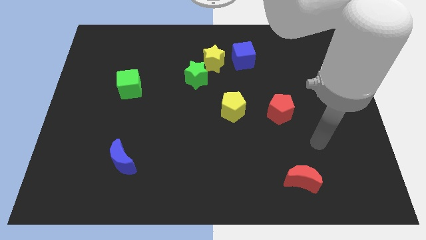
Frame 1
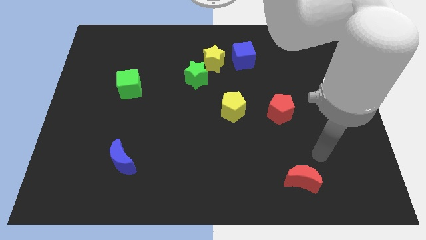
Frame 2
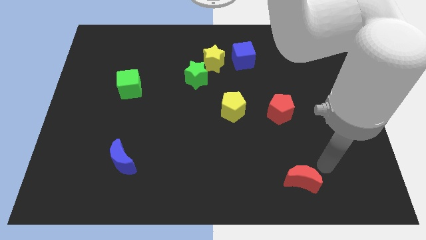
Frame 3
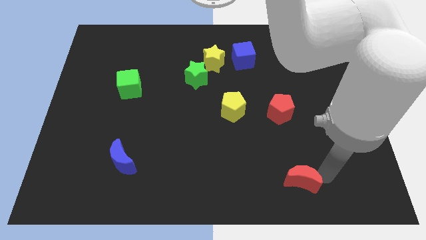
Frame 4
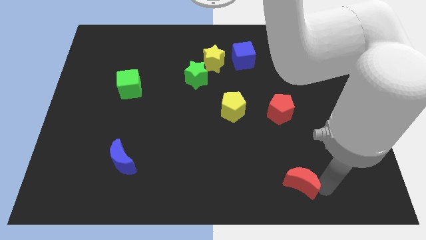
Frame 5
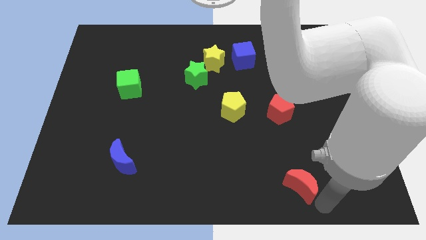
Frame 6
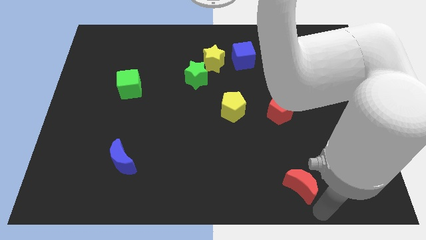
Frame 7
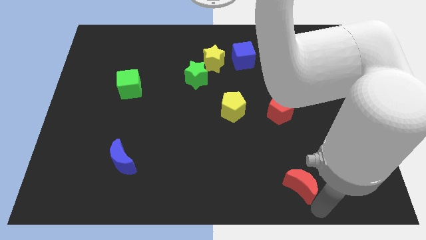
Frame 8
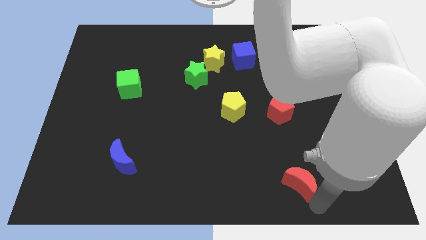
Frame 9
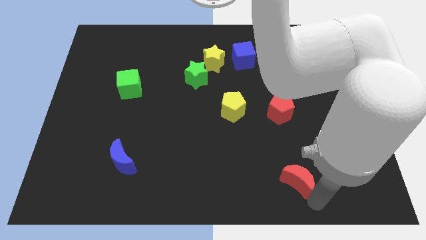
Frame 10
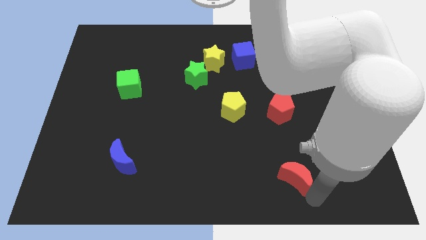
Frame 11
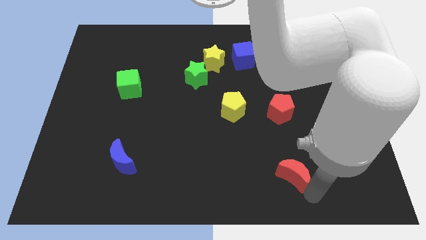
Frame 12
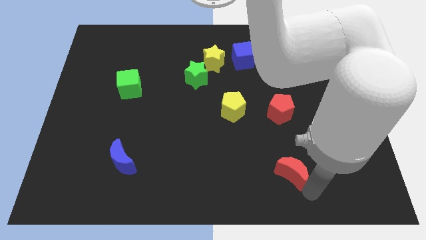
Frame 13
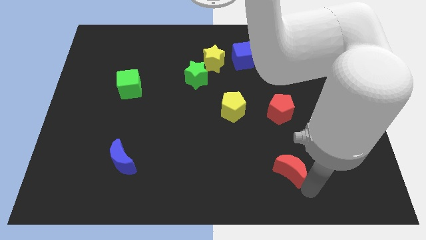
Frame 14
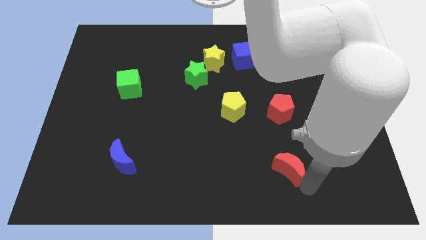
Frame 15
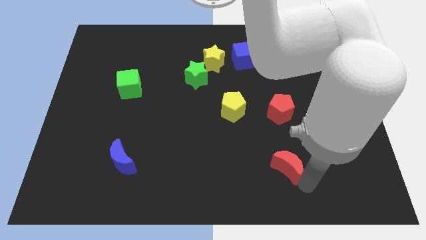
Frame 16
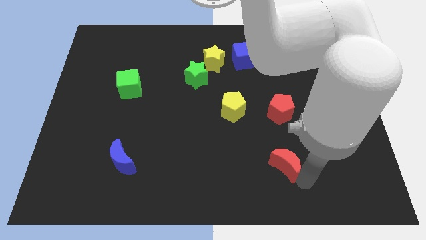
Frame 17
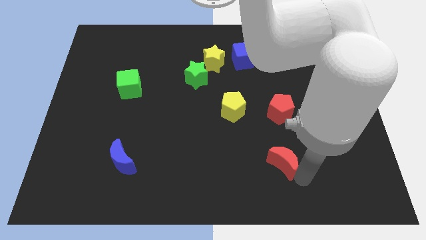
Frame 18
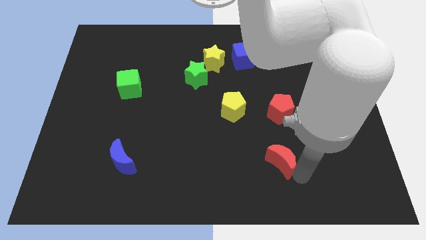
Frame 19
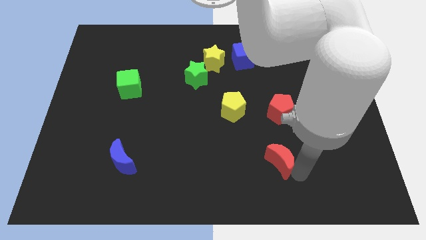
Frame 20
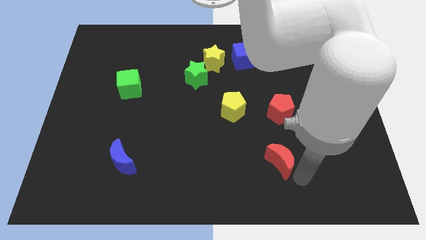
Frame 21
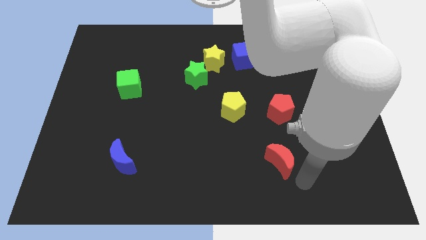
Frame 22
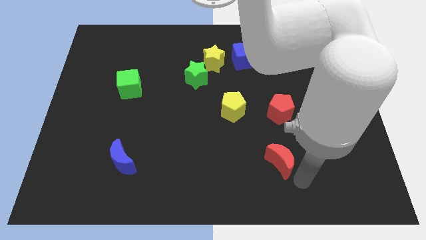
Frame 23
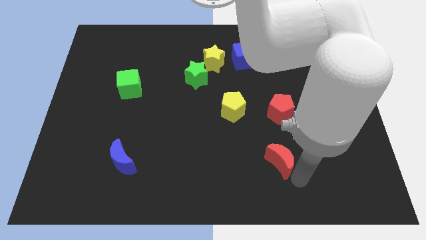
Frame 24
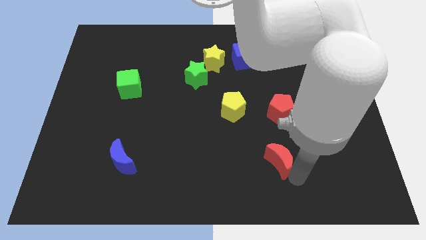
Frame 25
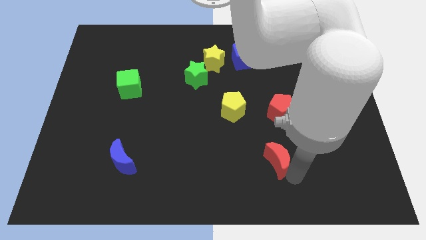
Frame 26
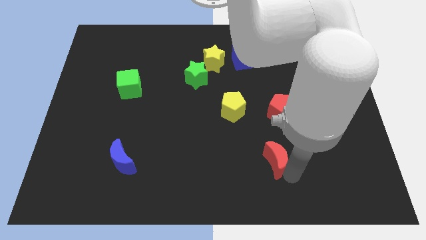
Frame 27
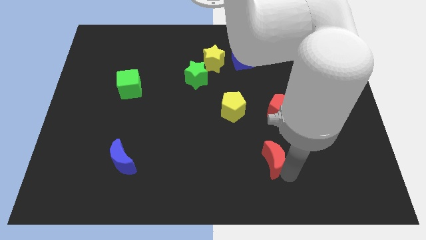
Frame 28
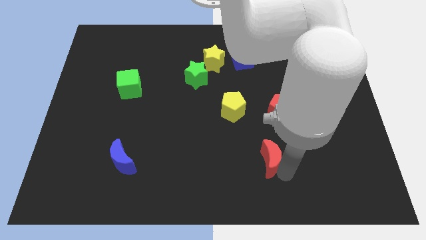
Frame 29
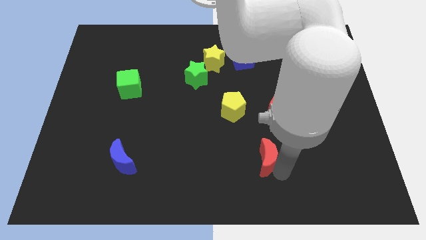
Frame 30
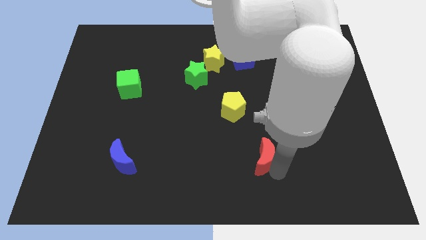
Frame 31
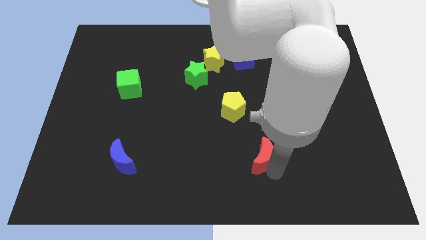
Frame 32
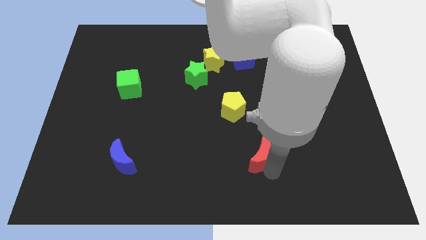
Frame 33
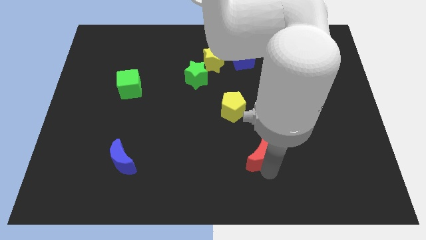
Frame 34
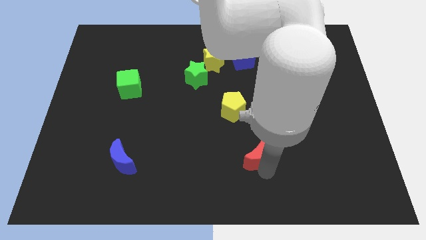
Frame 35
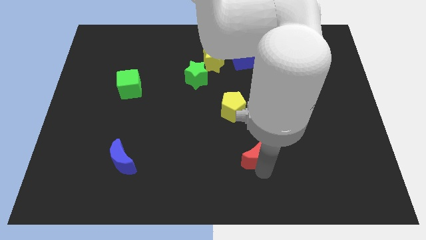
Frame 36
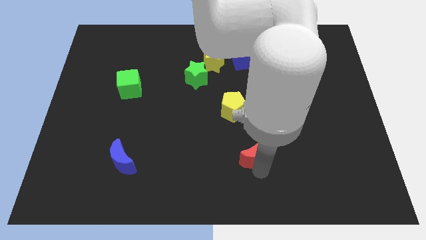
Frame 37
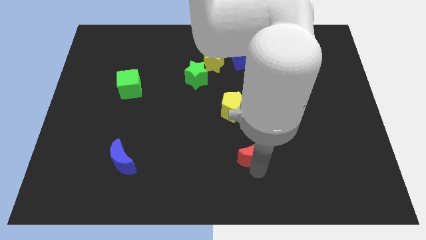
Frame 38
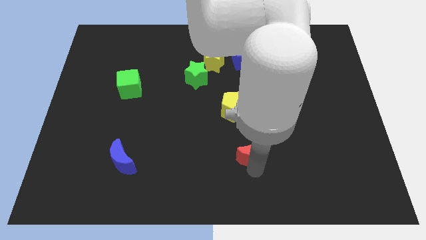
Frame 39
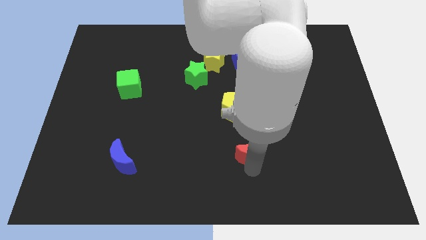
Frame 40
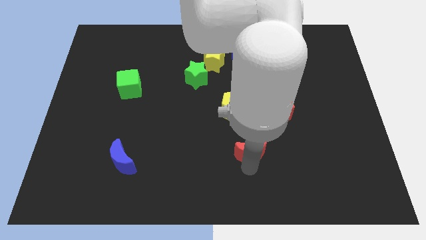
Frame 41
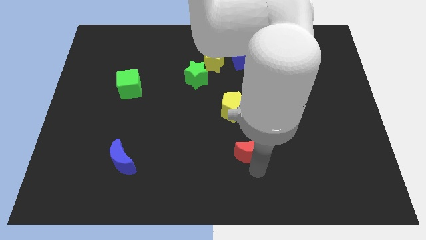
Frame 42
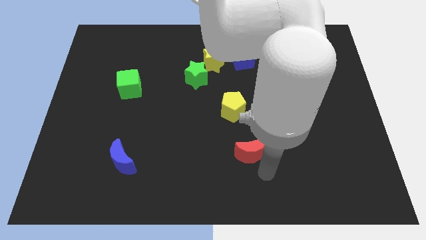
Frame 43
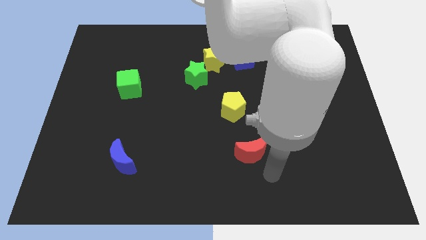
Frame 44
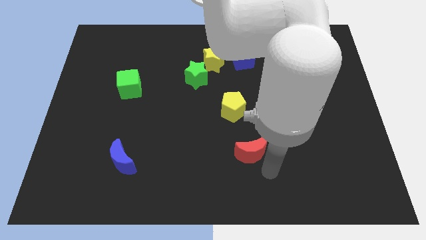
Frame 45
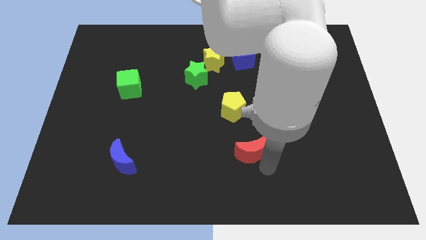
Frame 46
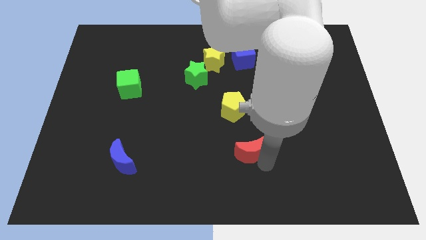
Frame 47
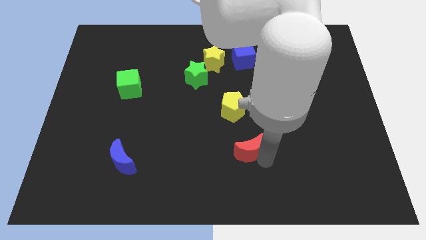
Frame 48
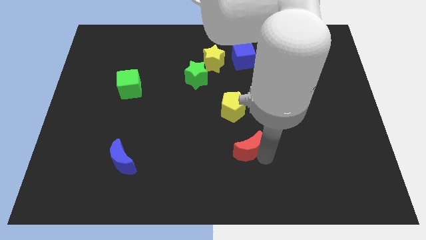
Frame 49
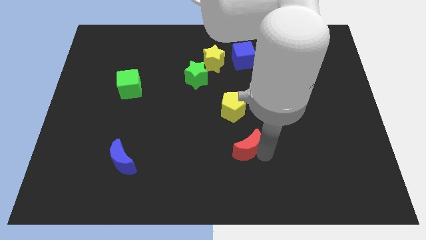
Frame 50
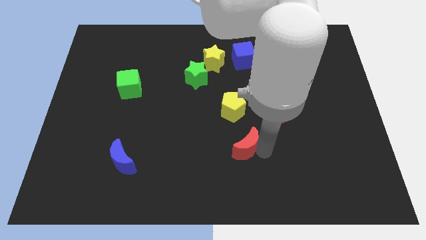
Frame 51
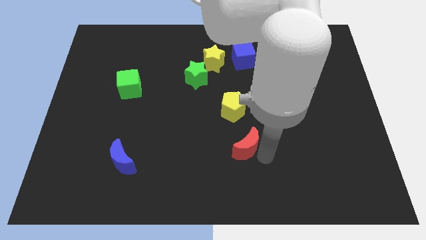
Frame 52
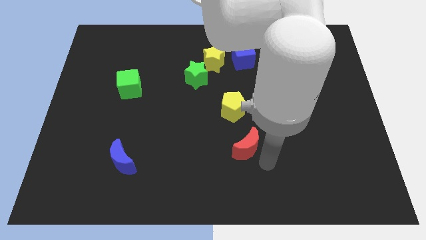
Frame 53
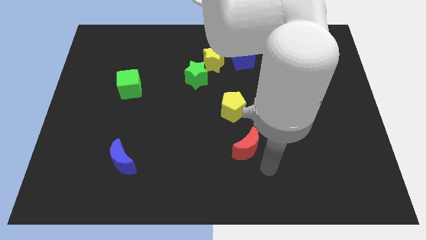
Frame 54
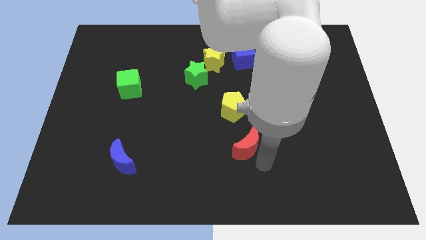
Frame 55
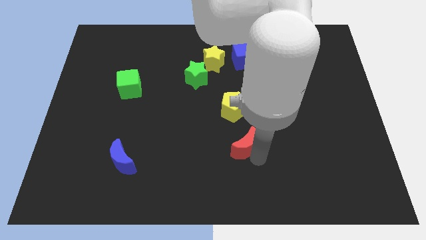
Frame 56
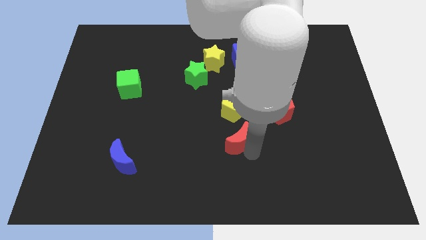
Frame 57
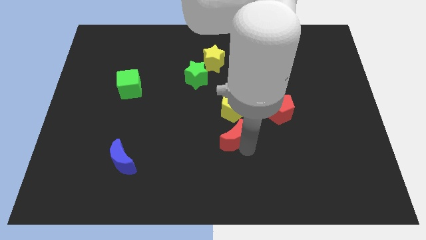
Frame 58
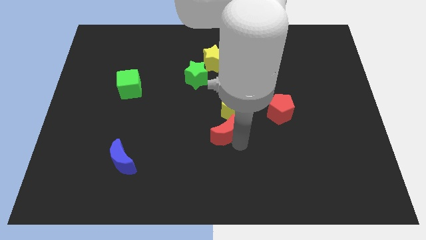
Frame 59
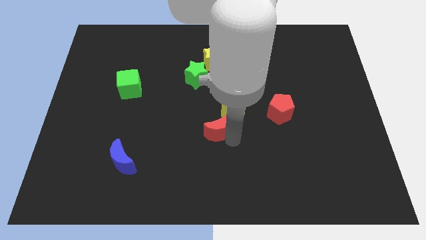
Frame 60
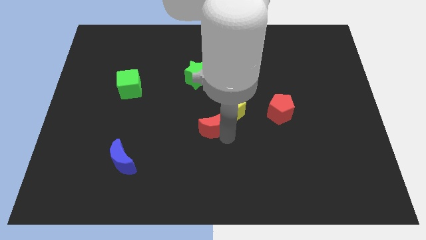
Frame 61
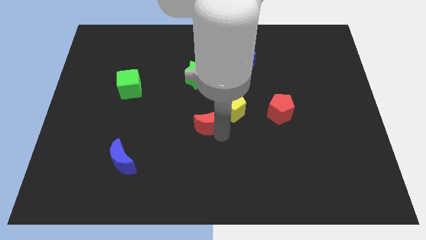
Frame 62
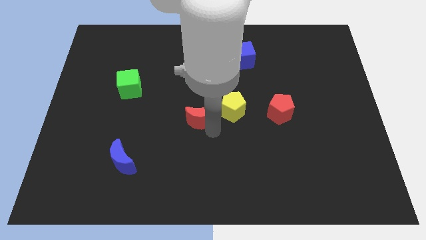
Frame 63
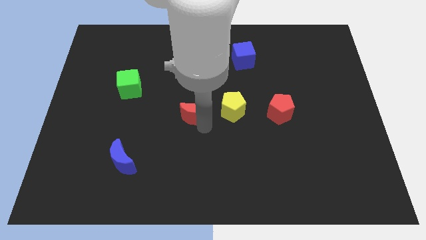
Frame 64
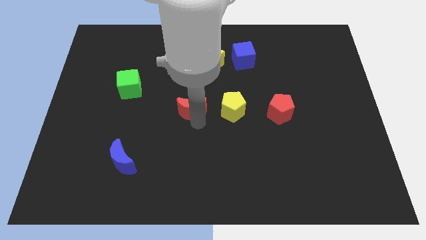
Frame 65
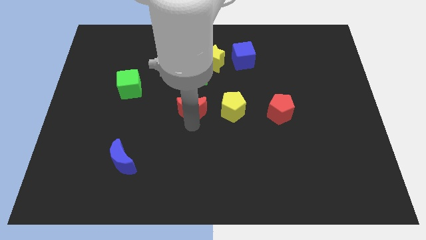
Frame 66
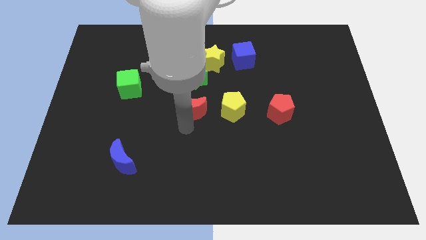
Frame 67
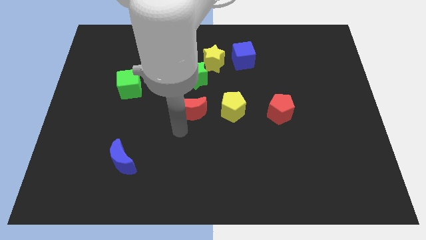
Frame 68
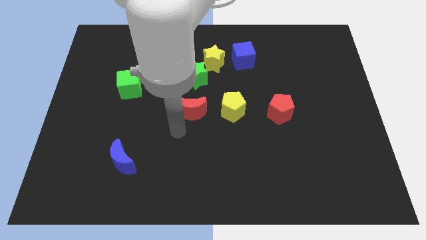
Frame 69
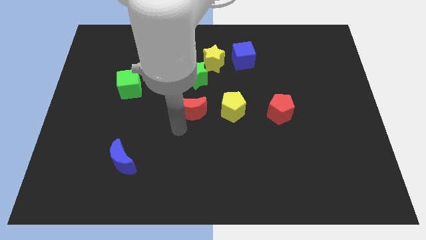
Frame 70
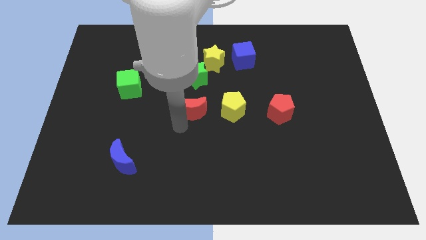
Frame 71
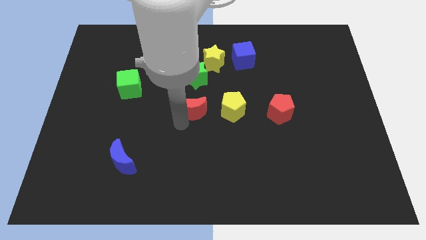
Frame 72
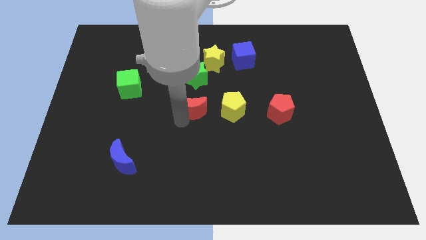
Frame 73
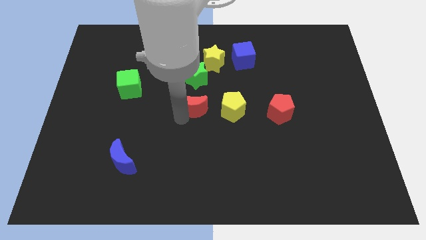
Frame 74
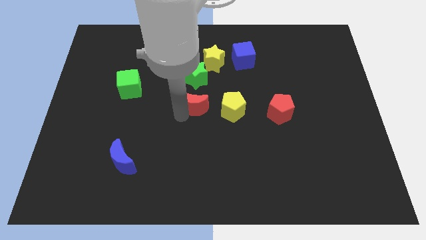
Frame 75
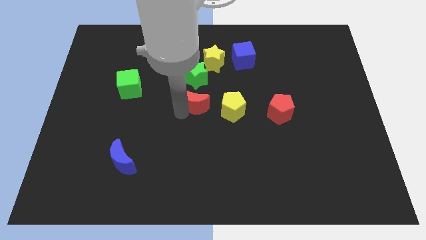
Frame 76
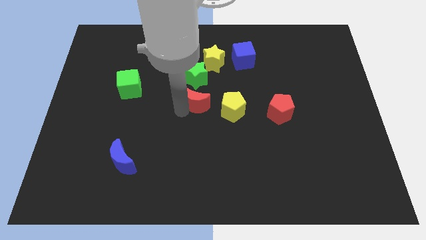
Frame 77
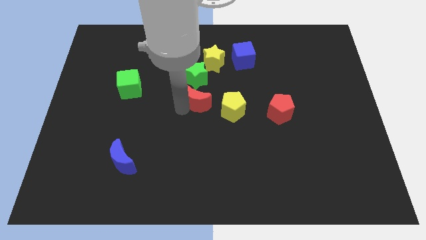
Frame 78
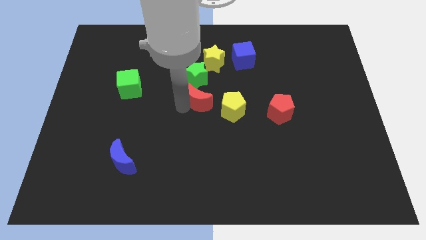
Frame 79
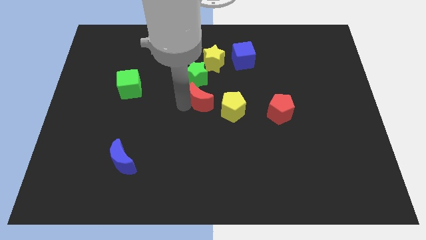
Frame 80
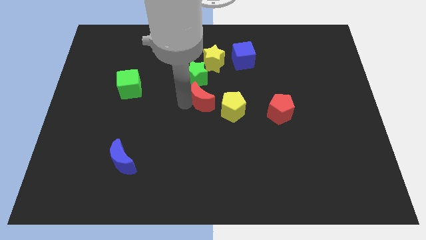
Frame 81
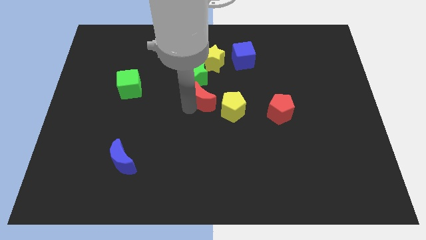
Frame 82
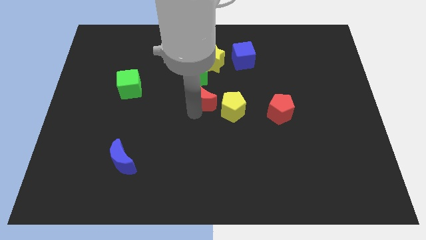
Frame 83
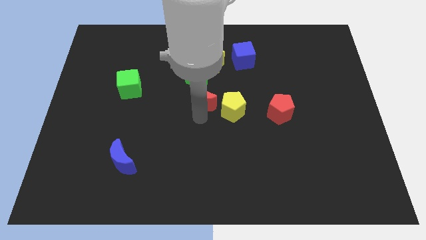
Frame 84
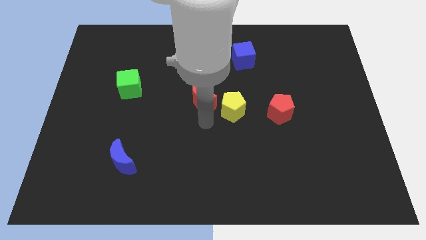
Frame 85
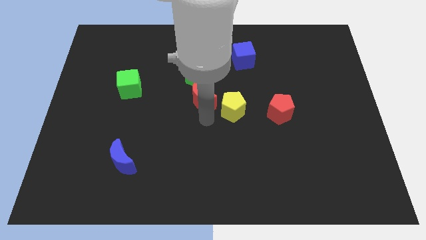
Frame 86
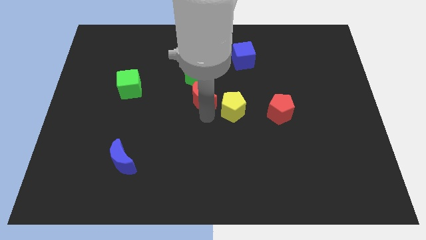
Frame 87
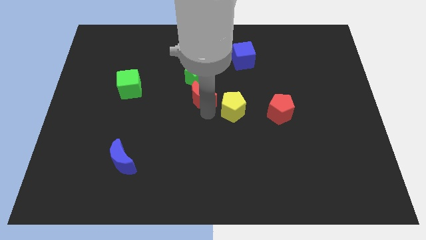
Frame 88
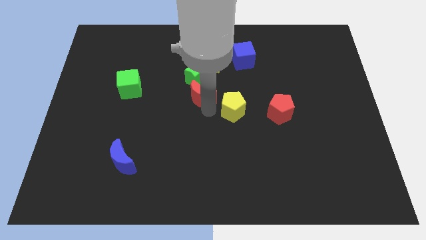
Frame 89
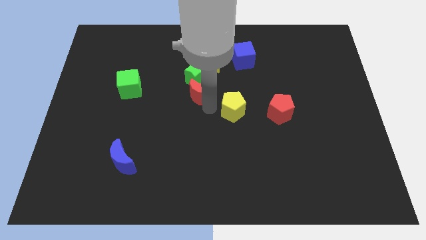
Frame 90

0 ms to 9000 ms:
put the red moon next to the green star
